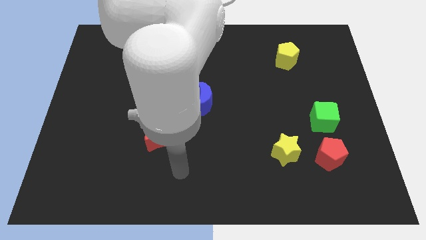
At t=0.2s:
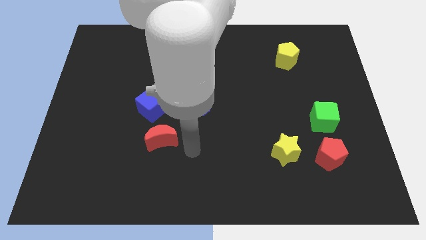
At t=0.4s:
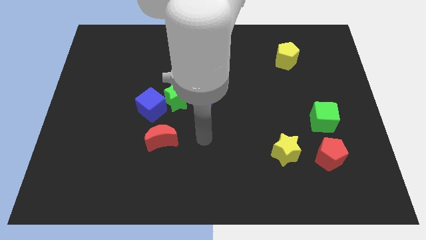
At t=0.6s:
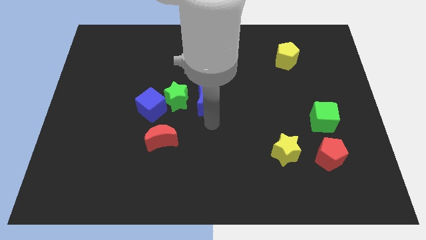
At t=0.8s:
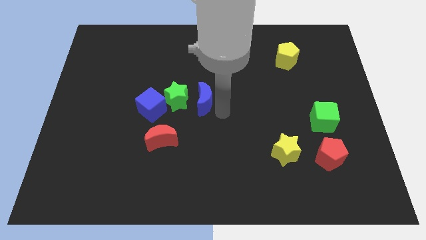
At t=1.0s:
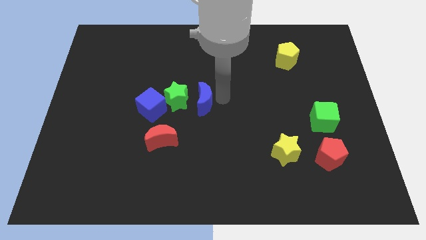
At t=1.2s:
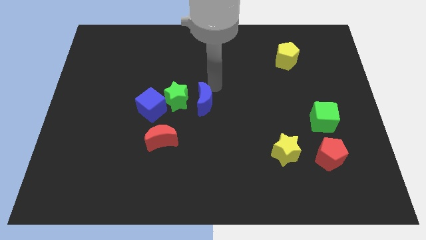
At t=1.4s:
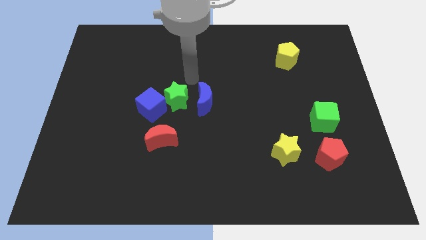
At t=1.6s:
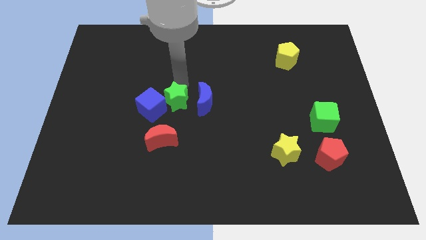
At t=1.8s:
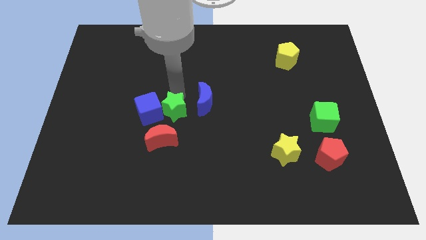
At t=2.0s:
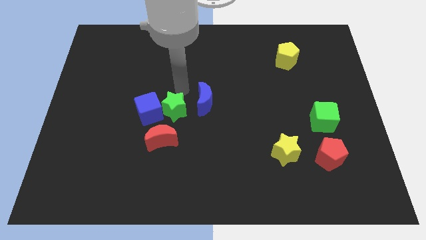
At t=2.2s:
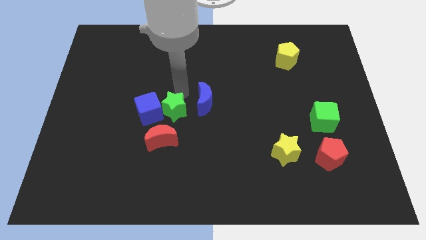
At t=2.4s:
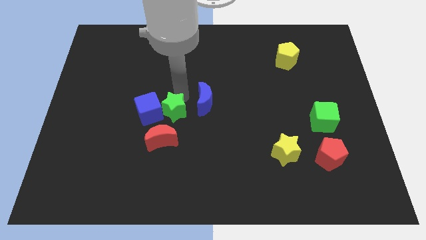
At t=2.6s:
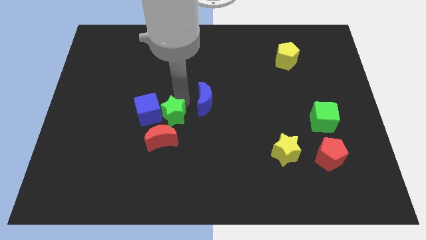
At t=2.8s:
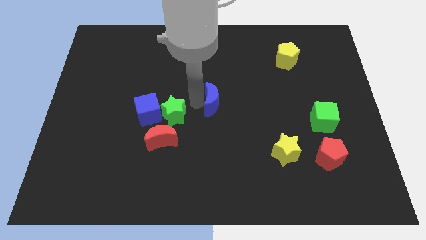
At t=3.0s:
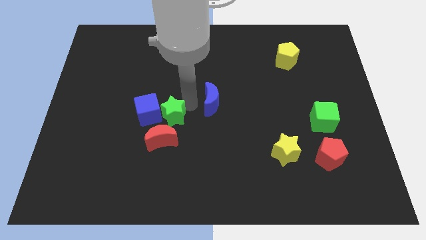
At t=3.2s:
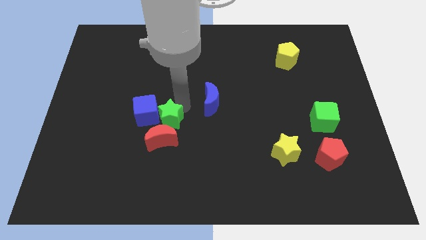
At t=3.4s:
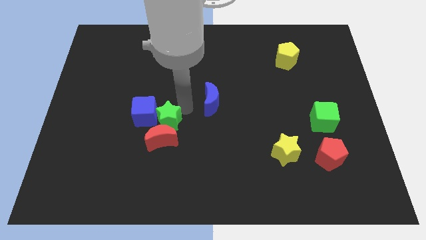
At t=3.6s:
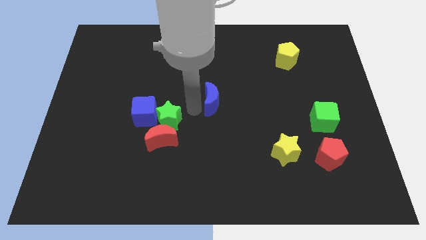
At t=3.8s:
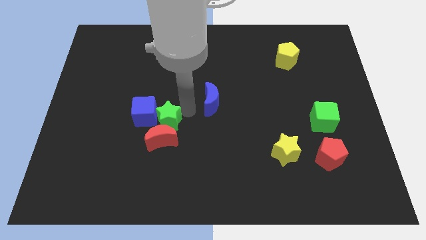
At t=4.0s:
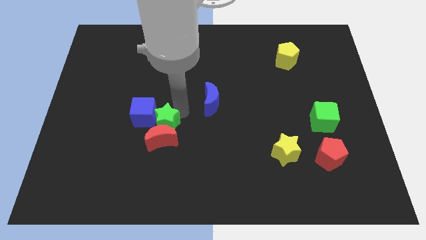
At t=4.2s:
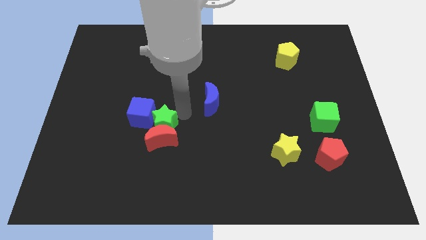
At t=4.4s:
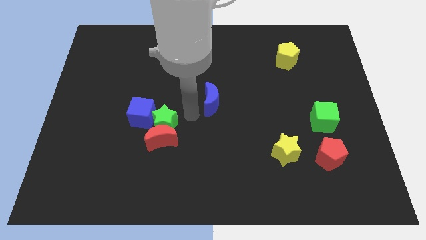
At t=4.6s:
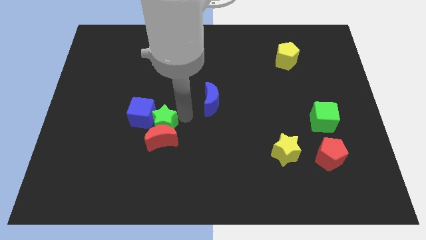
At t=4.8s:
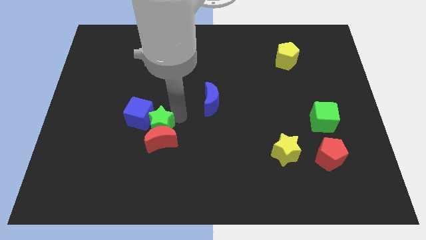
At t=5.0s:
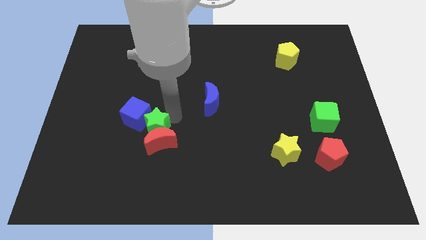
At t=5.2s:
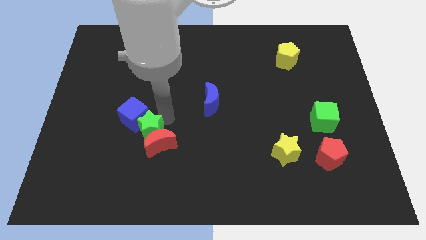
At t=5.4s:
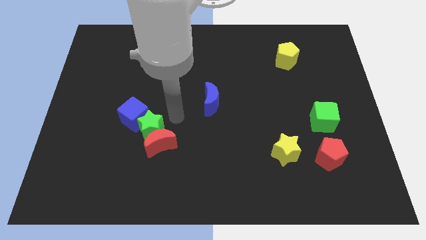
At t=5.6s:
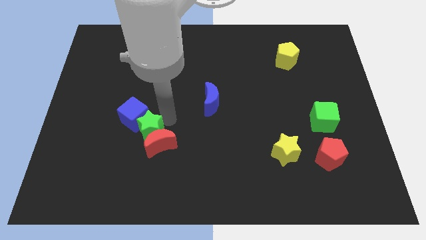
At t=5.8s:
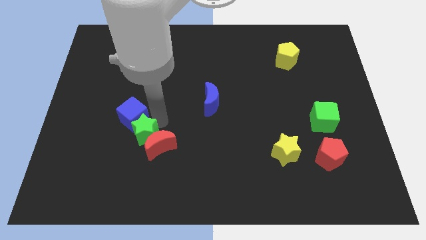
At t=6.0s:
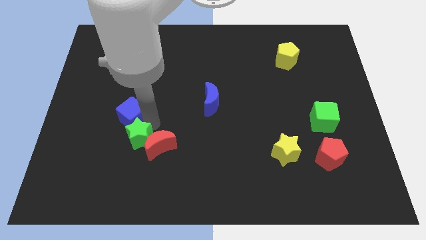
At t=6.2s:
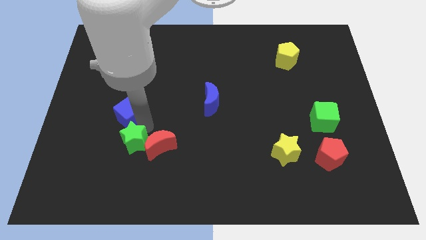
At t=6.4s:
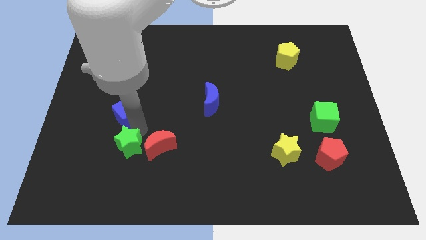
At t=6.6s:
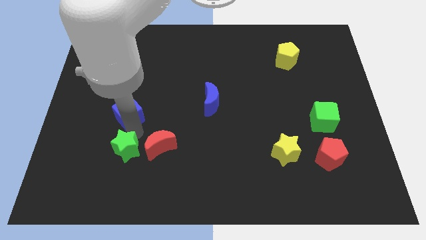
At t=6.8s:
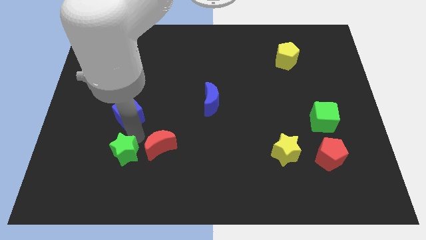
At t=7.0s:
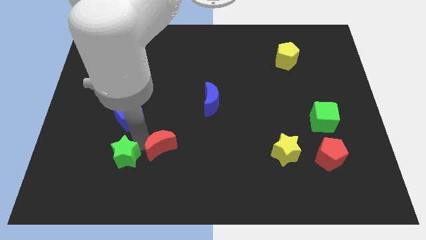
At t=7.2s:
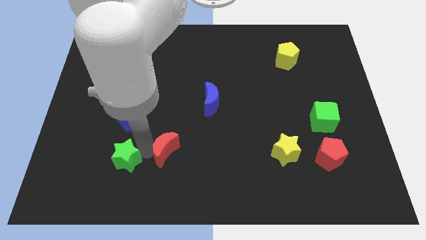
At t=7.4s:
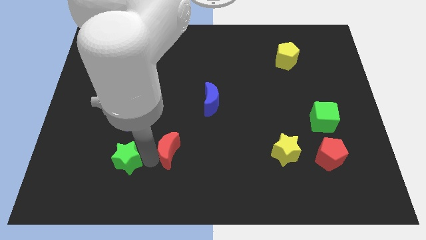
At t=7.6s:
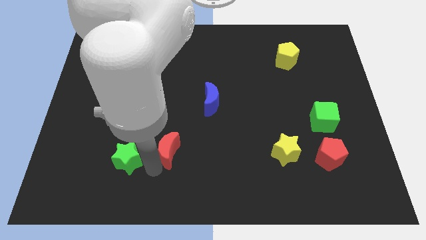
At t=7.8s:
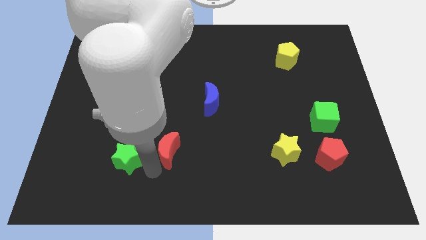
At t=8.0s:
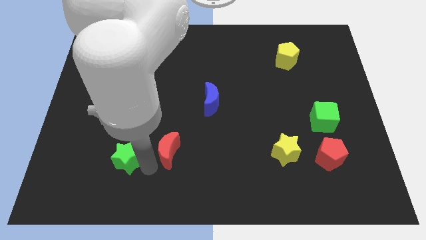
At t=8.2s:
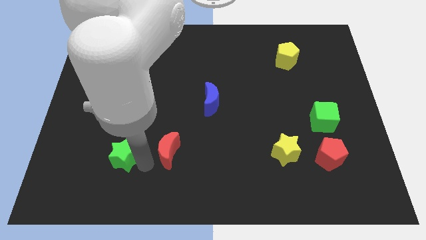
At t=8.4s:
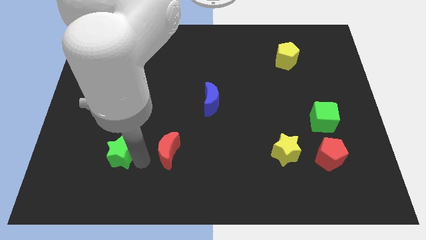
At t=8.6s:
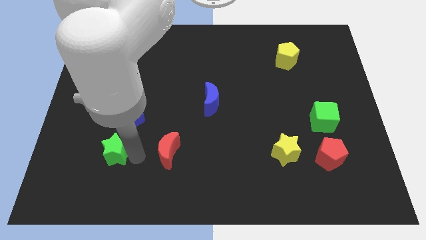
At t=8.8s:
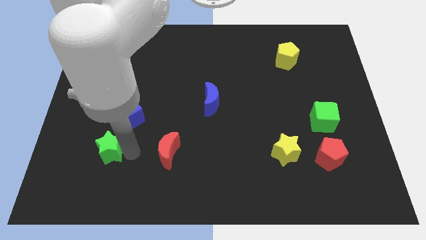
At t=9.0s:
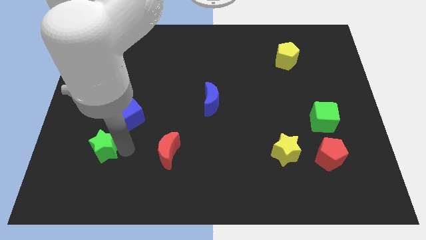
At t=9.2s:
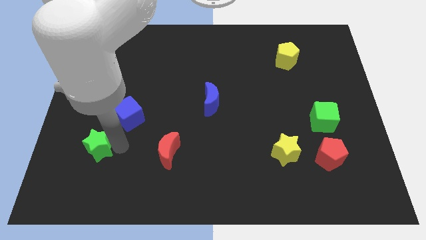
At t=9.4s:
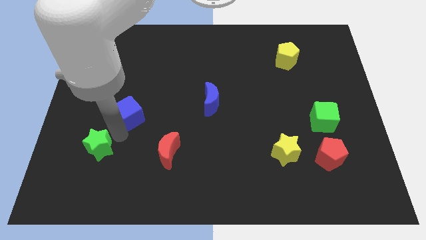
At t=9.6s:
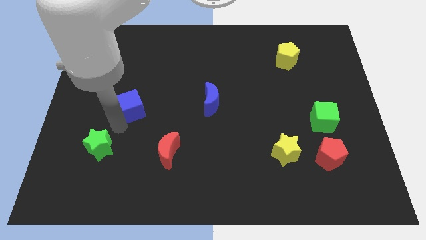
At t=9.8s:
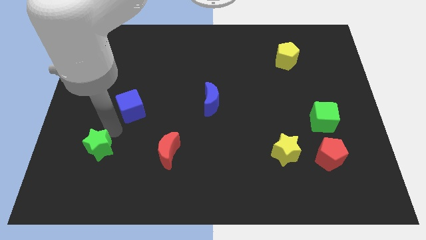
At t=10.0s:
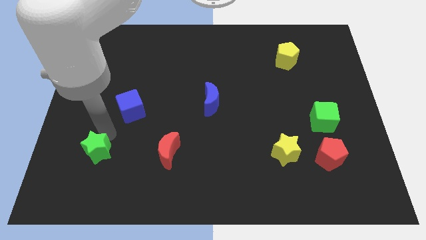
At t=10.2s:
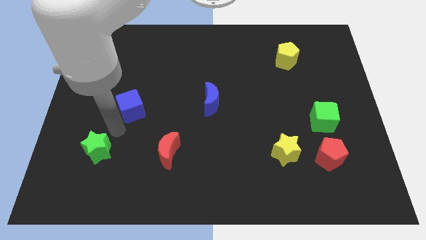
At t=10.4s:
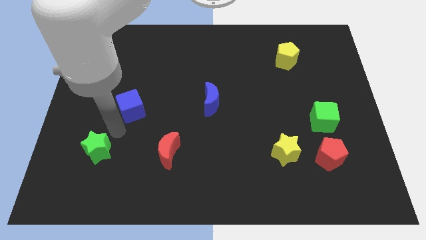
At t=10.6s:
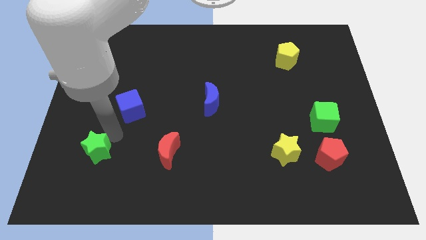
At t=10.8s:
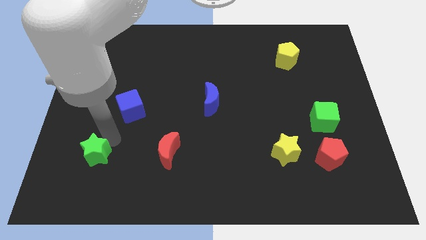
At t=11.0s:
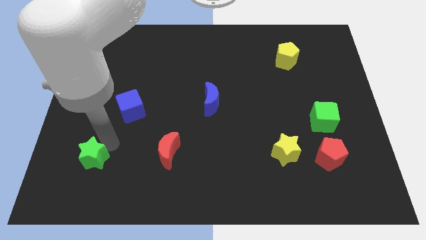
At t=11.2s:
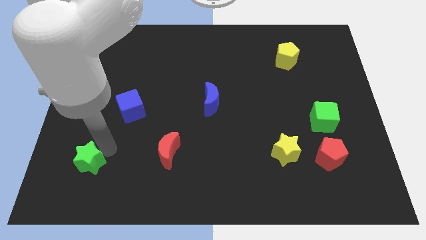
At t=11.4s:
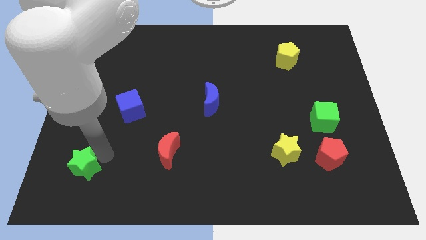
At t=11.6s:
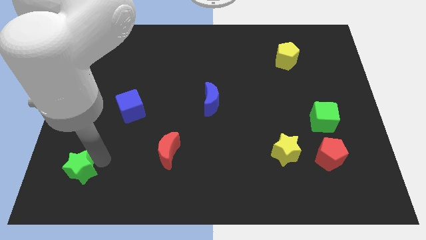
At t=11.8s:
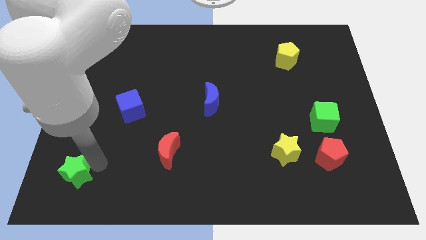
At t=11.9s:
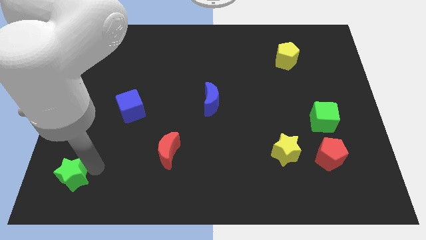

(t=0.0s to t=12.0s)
put the green star to the lower left corner

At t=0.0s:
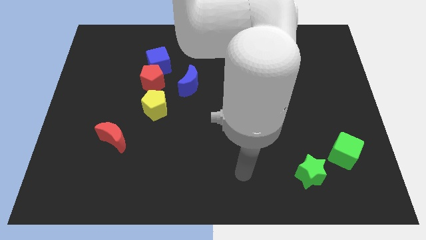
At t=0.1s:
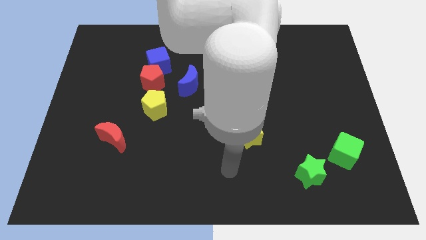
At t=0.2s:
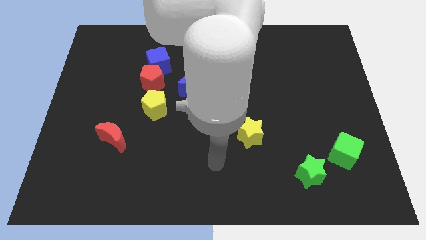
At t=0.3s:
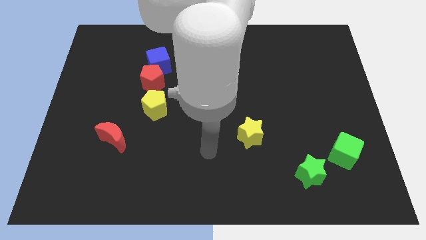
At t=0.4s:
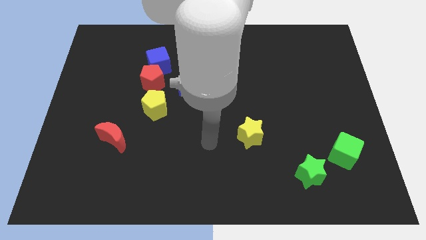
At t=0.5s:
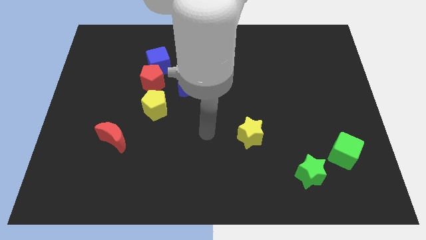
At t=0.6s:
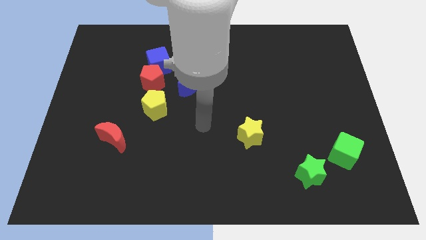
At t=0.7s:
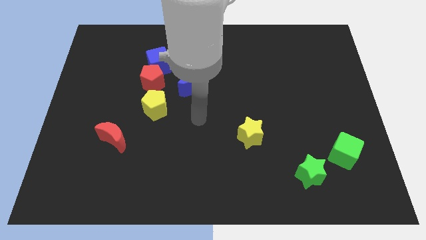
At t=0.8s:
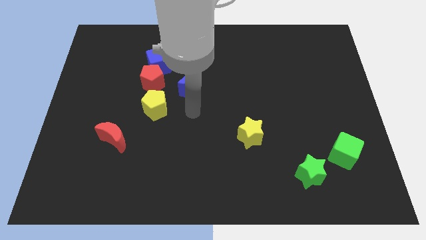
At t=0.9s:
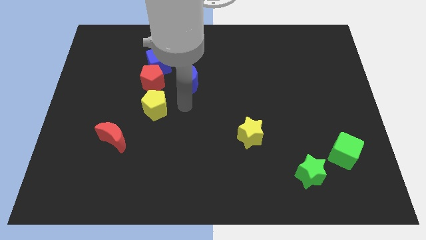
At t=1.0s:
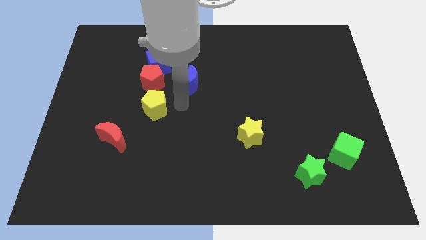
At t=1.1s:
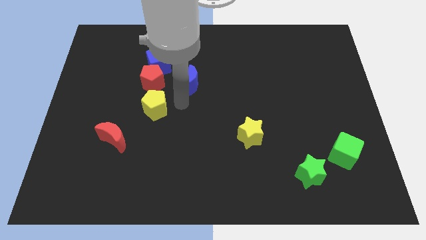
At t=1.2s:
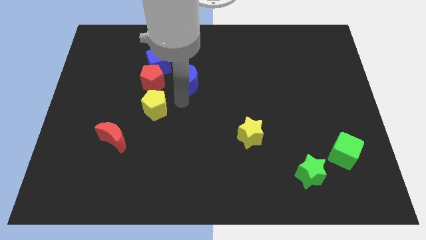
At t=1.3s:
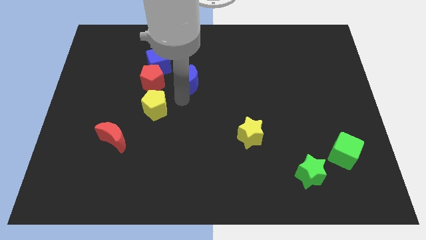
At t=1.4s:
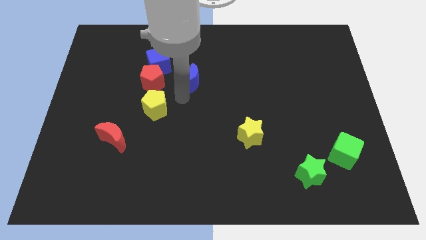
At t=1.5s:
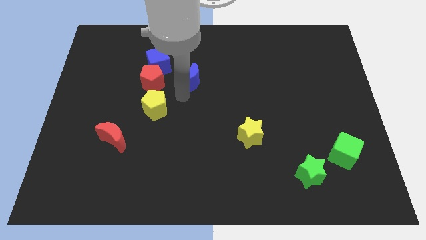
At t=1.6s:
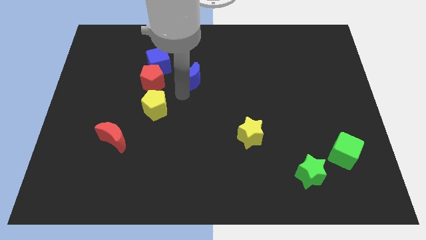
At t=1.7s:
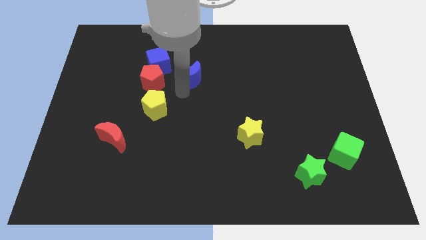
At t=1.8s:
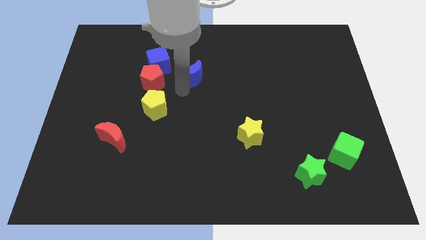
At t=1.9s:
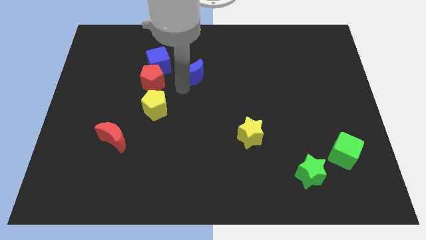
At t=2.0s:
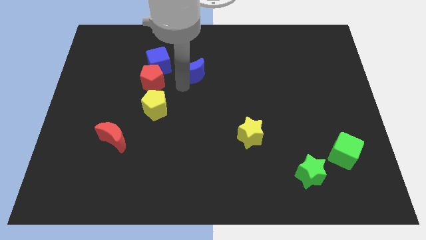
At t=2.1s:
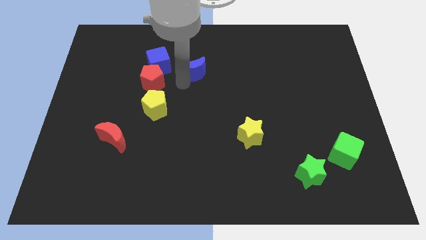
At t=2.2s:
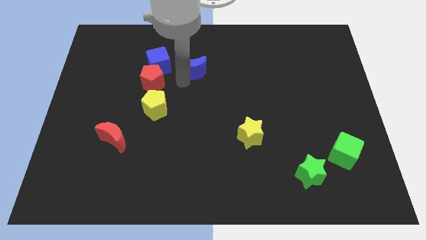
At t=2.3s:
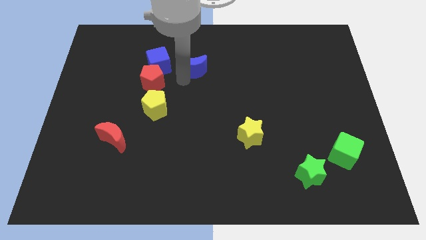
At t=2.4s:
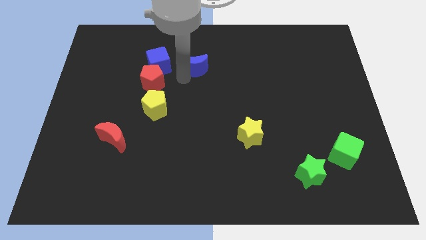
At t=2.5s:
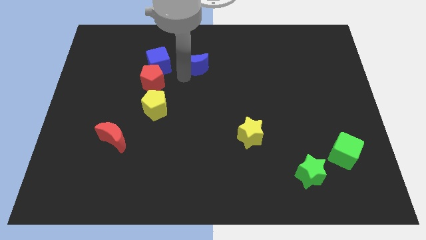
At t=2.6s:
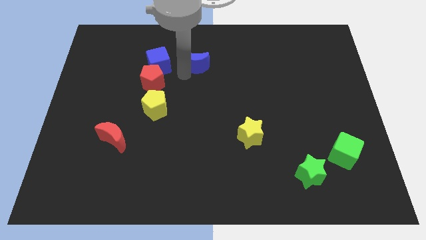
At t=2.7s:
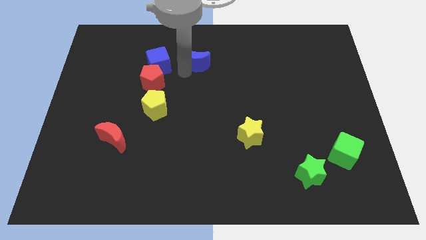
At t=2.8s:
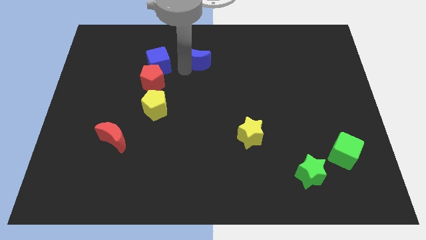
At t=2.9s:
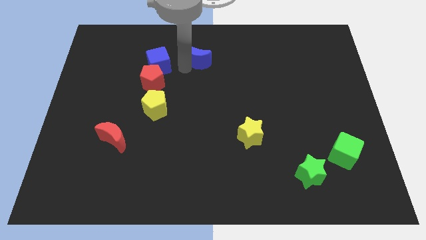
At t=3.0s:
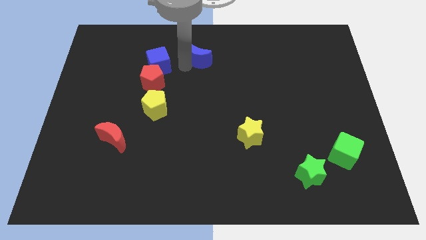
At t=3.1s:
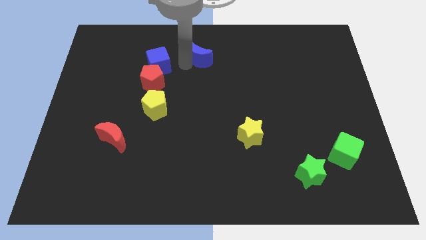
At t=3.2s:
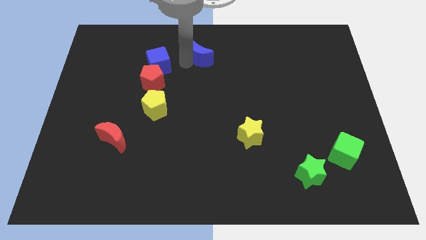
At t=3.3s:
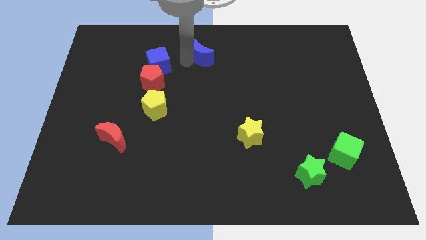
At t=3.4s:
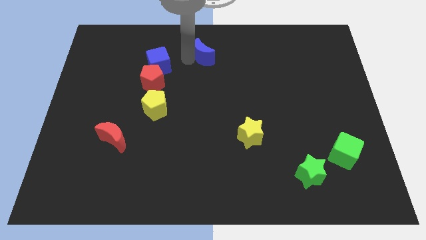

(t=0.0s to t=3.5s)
put the blue moon to the top
